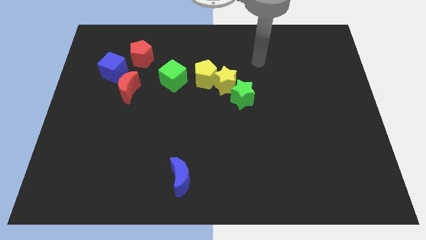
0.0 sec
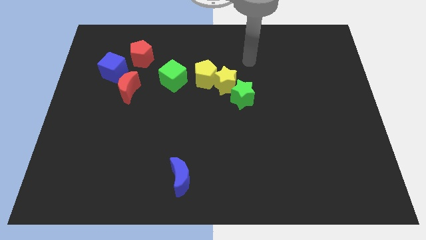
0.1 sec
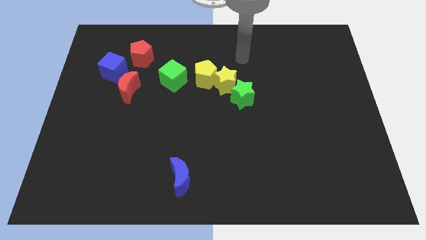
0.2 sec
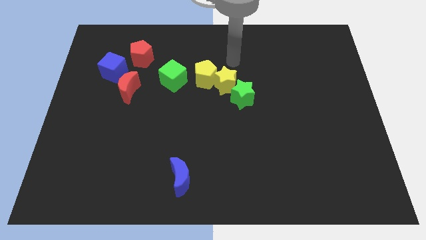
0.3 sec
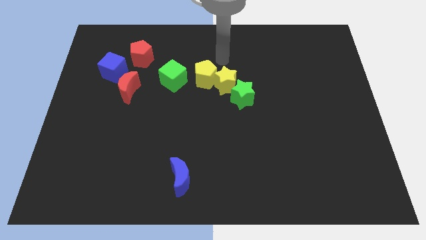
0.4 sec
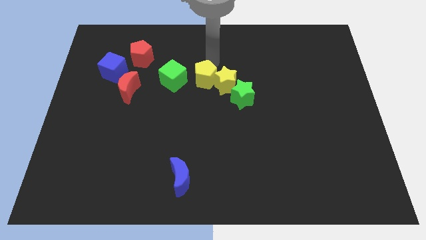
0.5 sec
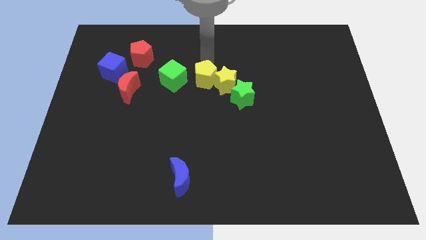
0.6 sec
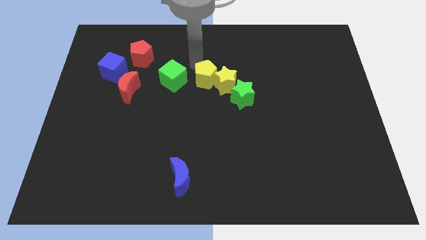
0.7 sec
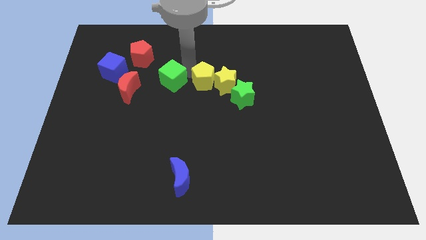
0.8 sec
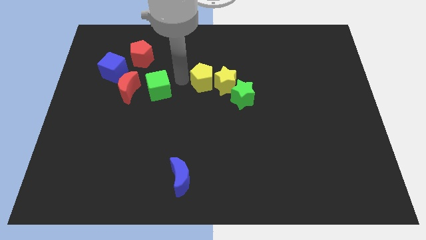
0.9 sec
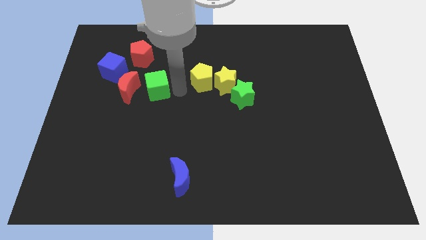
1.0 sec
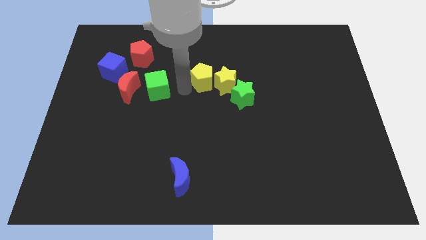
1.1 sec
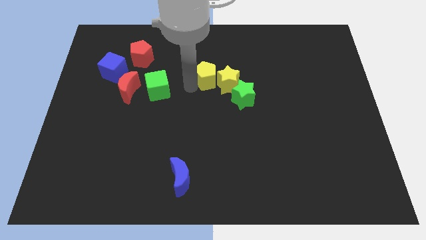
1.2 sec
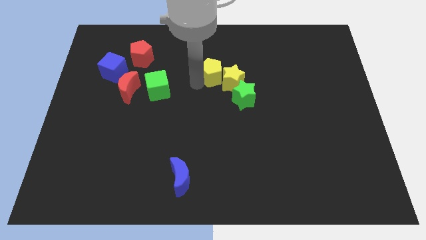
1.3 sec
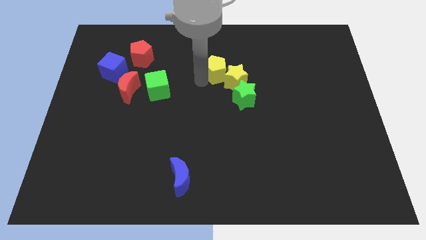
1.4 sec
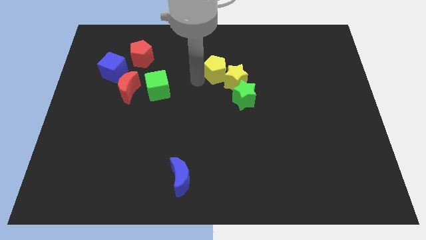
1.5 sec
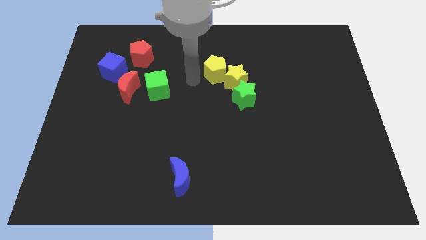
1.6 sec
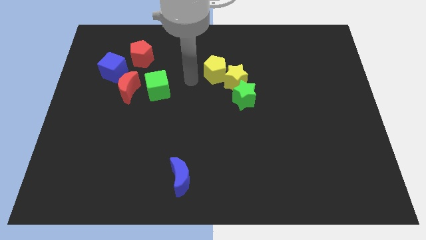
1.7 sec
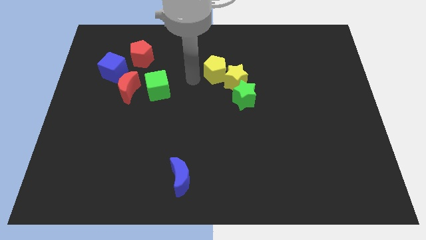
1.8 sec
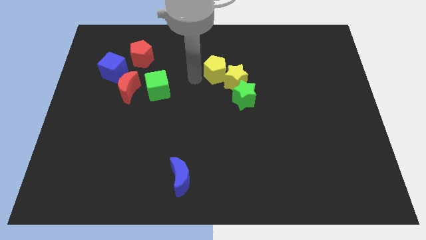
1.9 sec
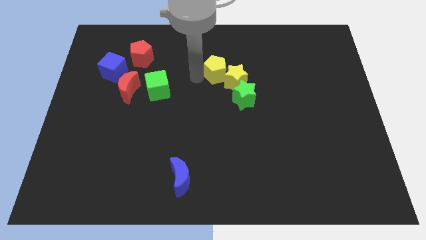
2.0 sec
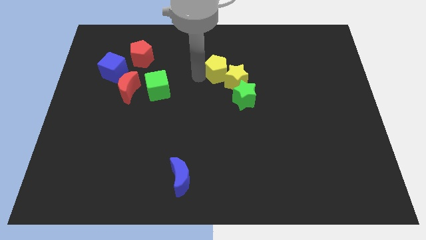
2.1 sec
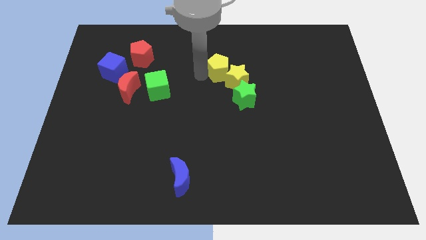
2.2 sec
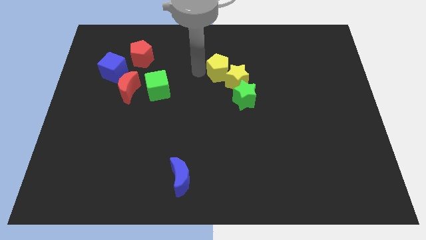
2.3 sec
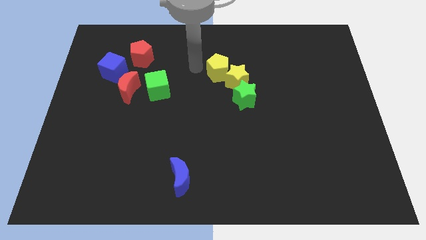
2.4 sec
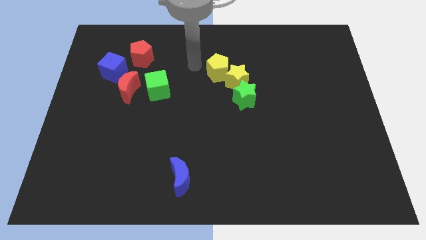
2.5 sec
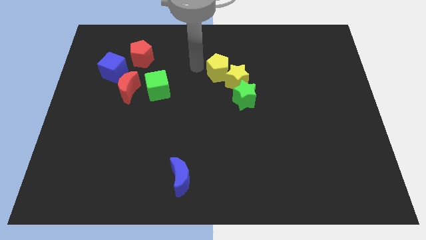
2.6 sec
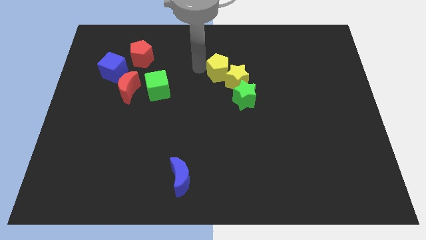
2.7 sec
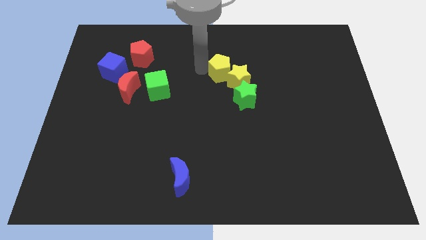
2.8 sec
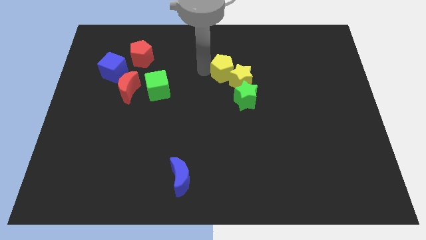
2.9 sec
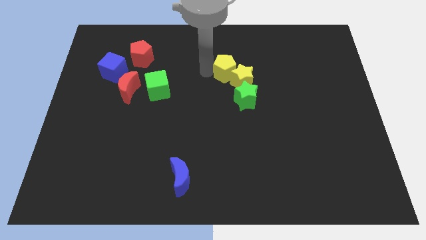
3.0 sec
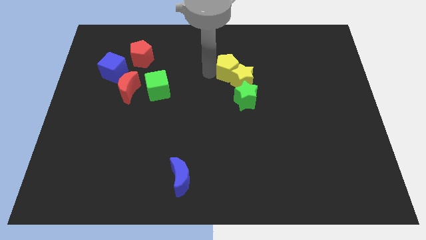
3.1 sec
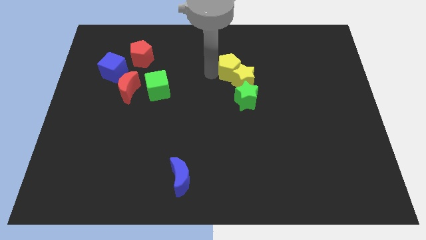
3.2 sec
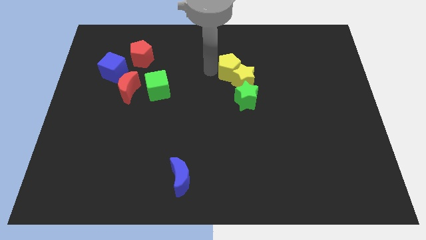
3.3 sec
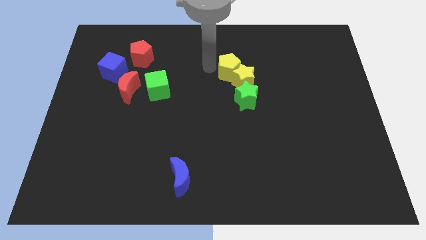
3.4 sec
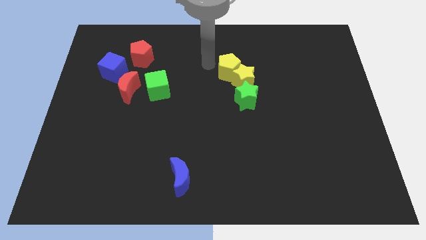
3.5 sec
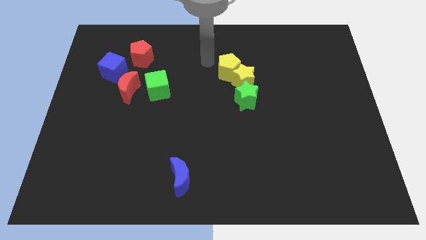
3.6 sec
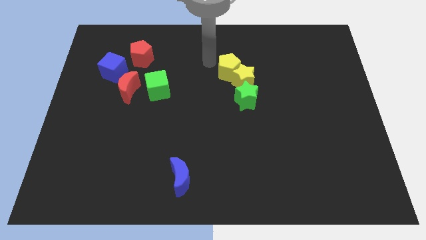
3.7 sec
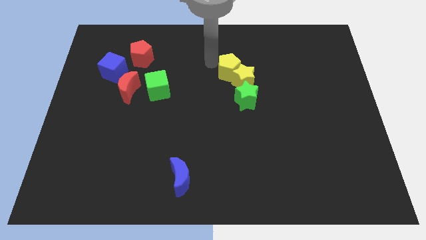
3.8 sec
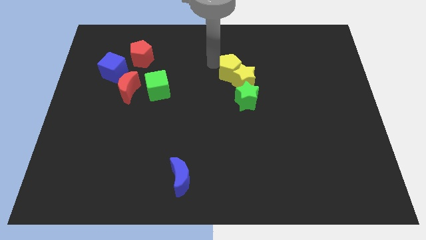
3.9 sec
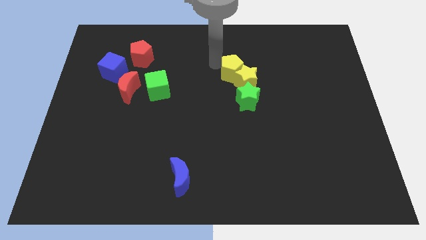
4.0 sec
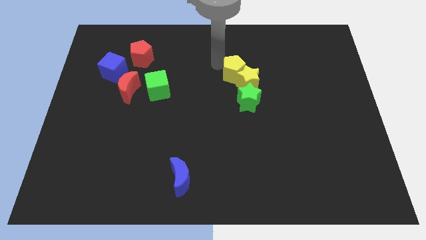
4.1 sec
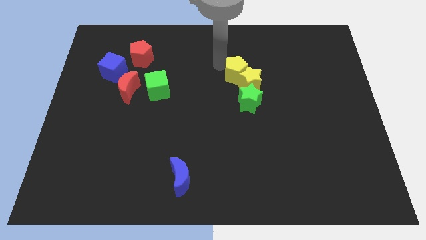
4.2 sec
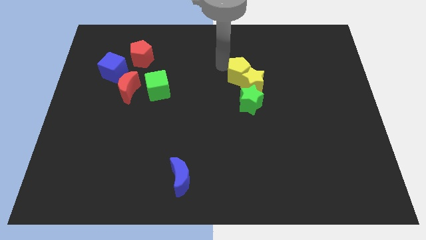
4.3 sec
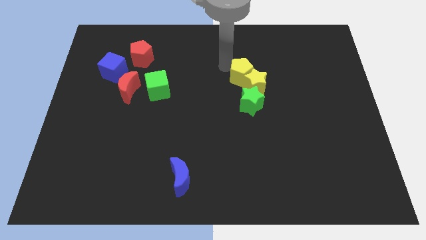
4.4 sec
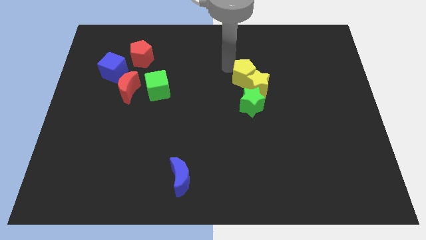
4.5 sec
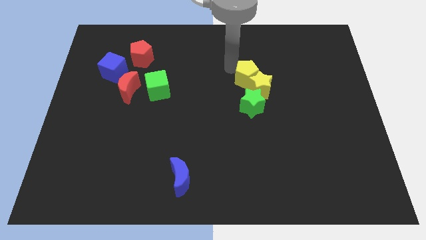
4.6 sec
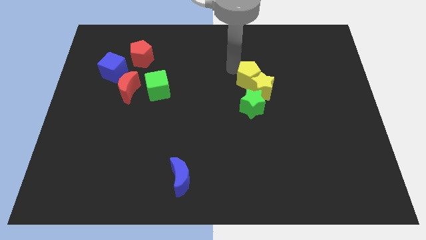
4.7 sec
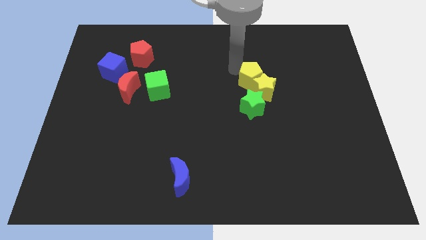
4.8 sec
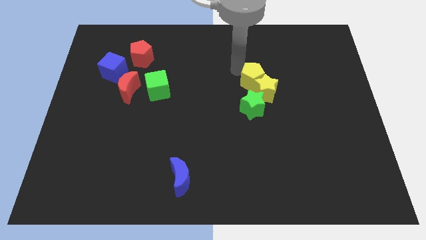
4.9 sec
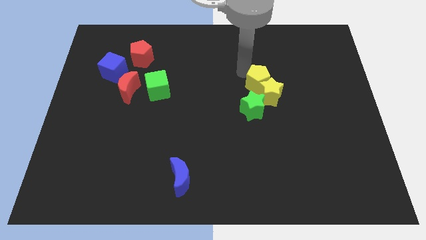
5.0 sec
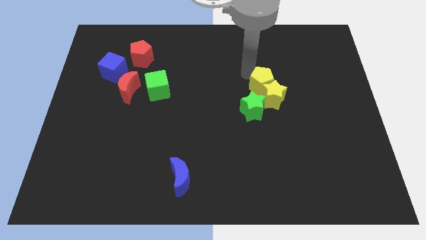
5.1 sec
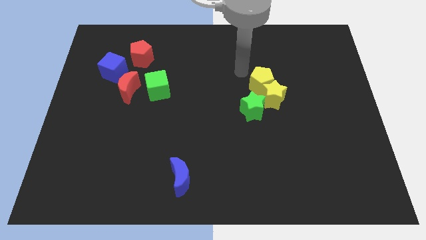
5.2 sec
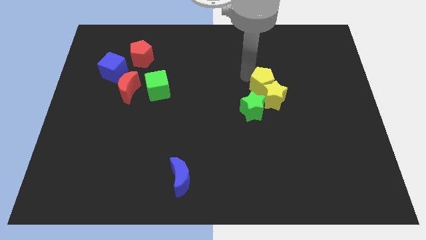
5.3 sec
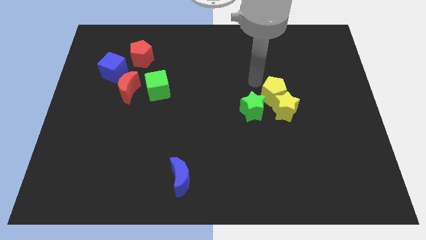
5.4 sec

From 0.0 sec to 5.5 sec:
move the yellow pentagon to the right side of the green star
